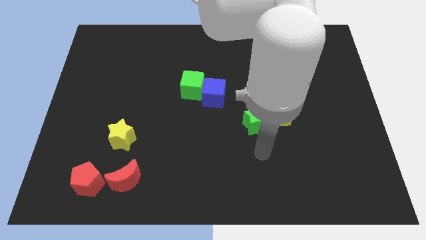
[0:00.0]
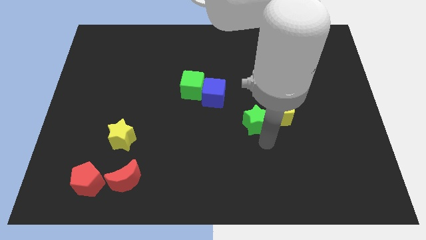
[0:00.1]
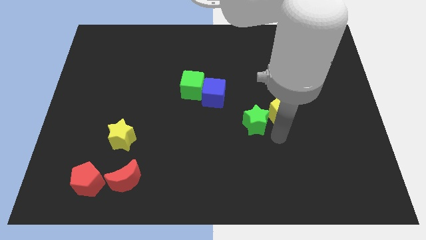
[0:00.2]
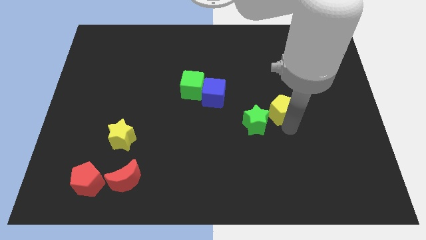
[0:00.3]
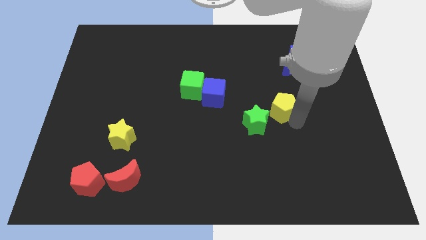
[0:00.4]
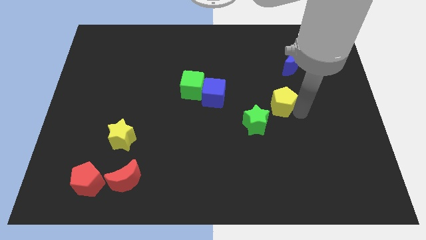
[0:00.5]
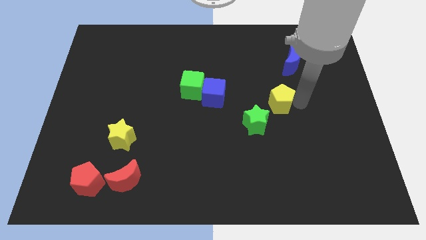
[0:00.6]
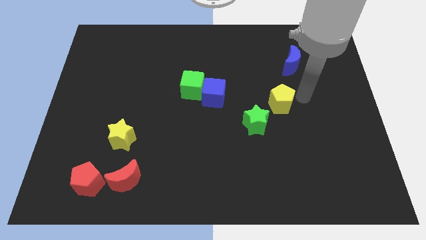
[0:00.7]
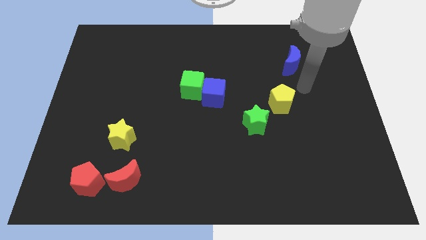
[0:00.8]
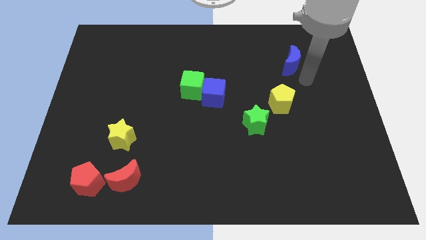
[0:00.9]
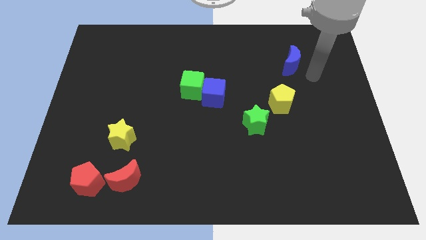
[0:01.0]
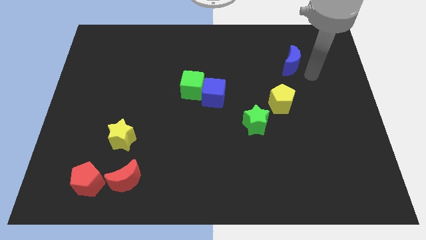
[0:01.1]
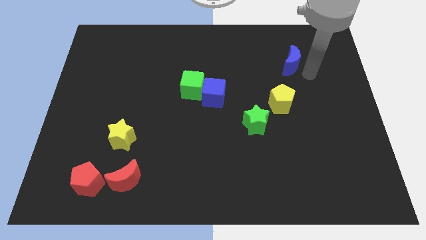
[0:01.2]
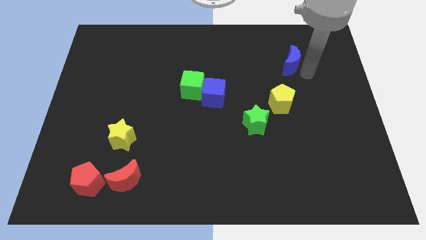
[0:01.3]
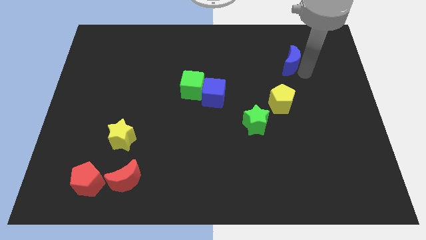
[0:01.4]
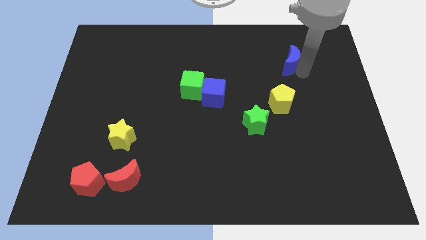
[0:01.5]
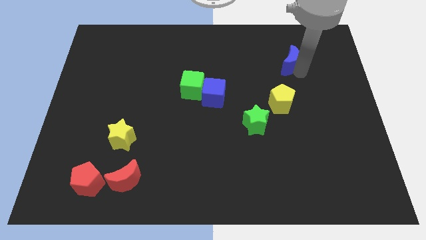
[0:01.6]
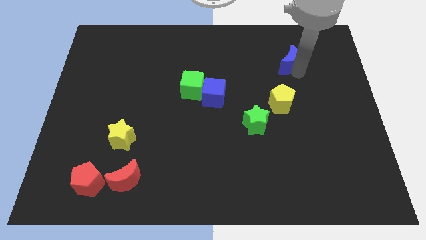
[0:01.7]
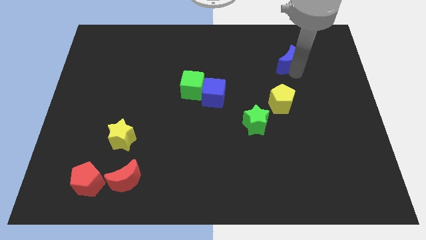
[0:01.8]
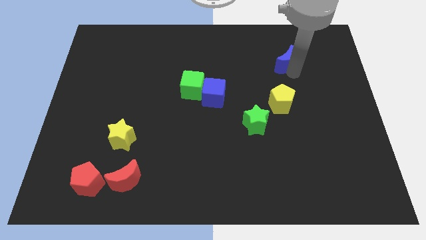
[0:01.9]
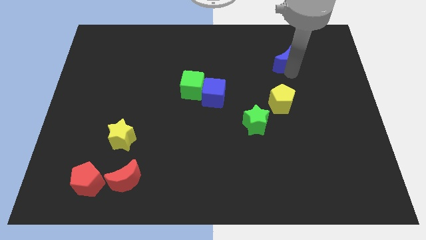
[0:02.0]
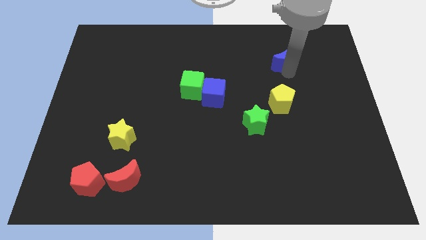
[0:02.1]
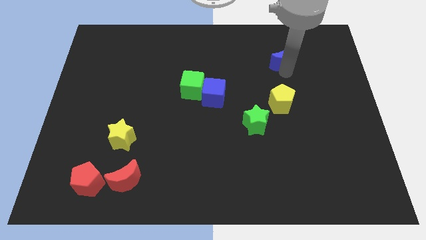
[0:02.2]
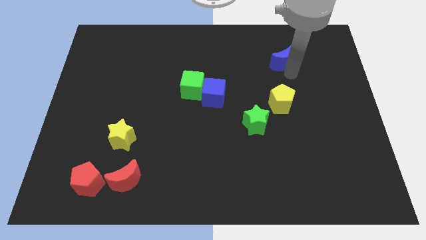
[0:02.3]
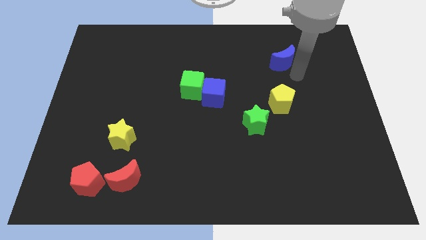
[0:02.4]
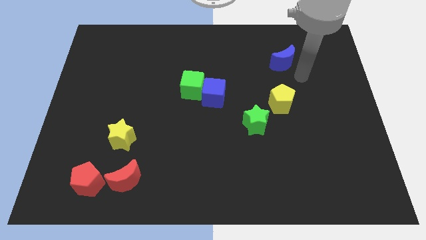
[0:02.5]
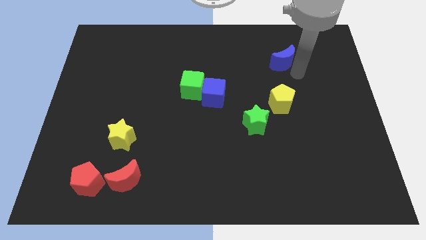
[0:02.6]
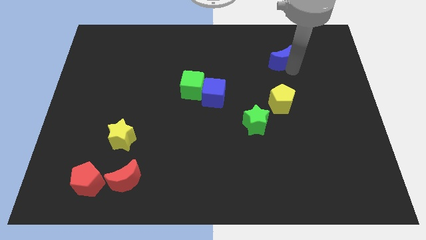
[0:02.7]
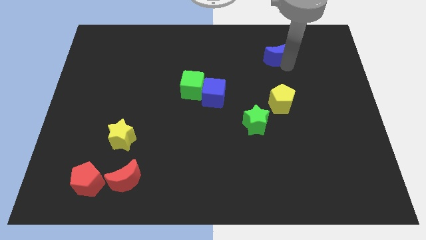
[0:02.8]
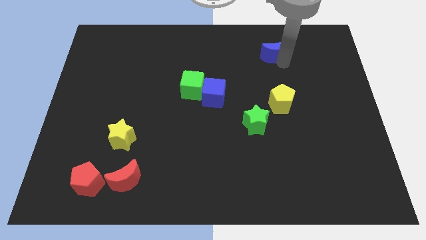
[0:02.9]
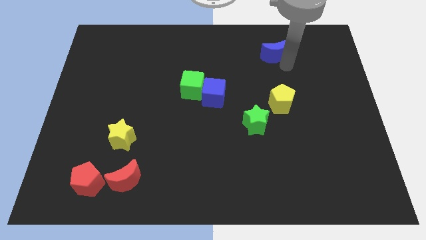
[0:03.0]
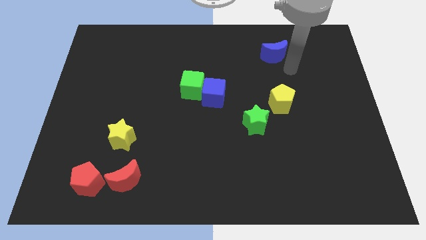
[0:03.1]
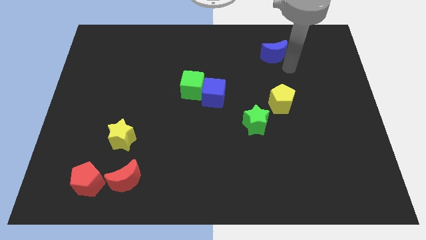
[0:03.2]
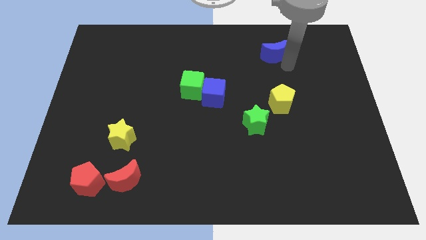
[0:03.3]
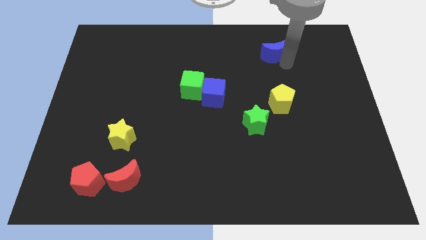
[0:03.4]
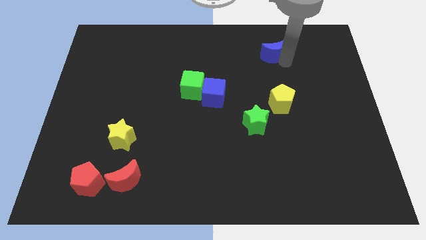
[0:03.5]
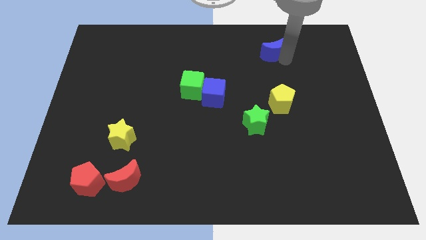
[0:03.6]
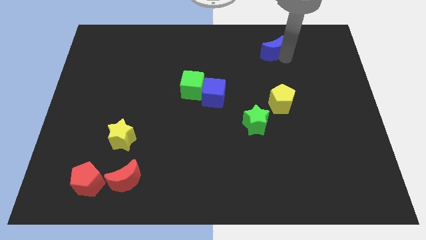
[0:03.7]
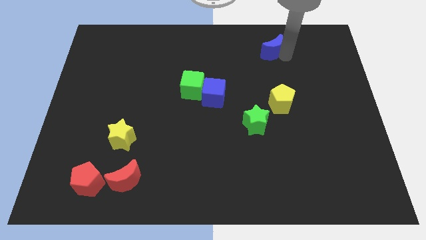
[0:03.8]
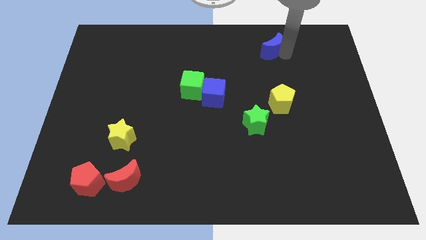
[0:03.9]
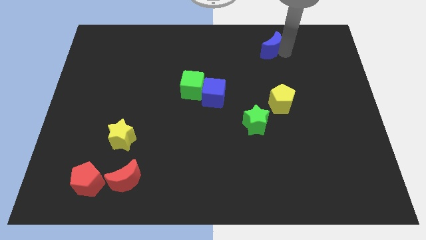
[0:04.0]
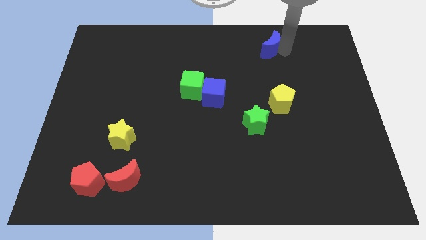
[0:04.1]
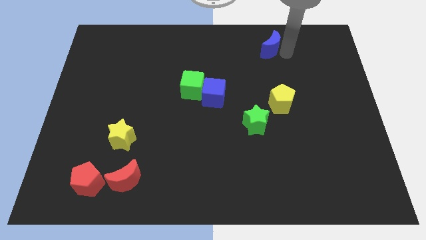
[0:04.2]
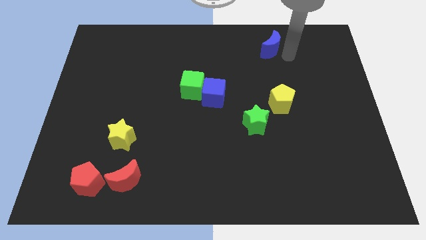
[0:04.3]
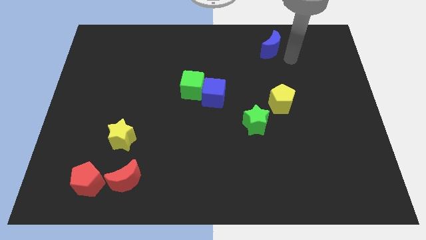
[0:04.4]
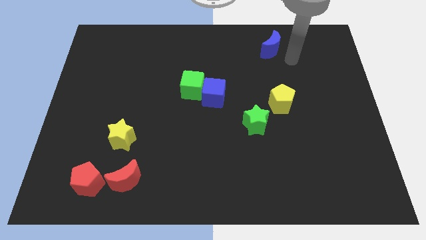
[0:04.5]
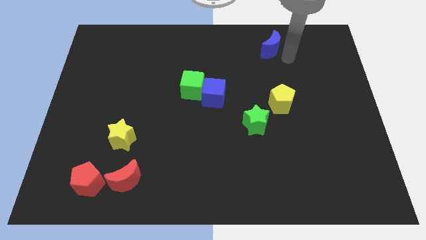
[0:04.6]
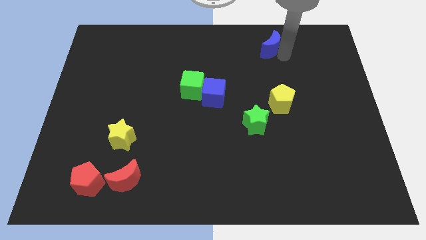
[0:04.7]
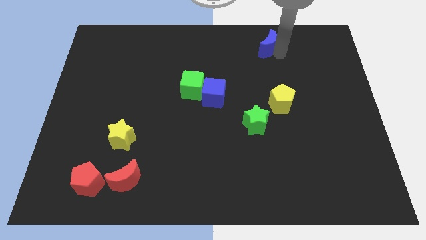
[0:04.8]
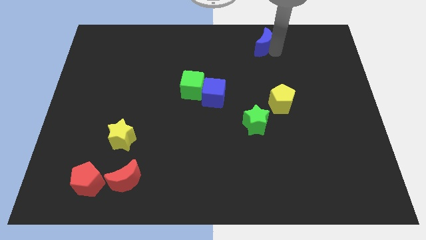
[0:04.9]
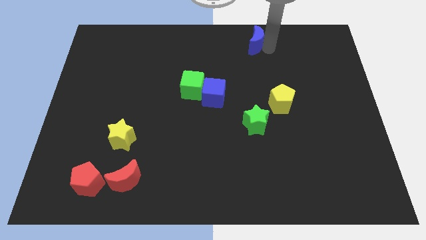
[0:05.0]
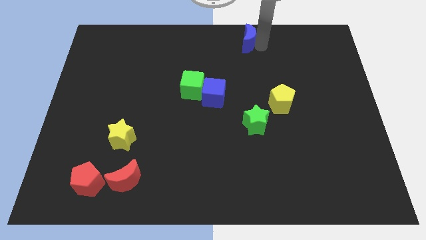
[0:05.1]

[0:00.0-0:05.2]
move the blue moon to the towards your base

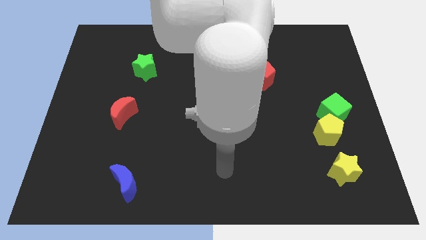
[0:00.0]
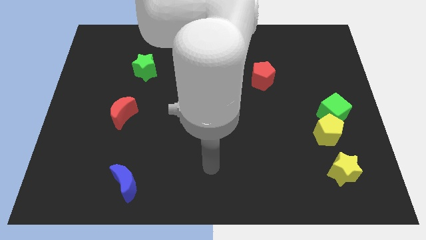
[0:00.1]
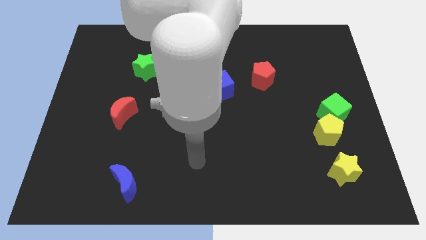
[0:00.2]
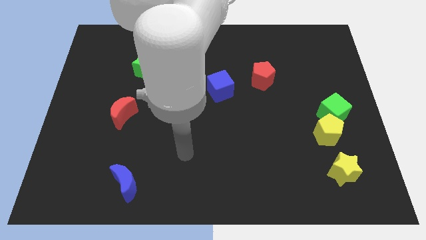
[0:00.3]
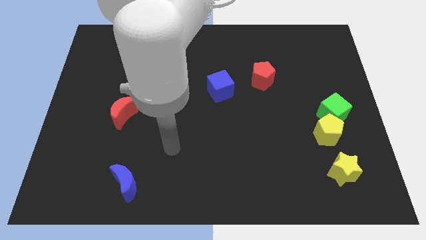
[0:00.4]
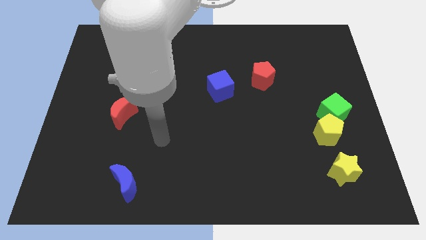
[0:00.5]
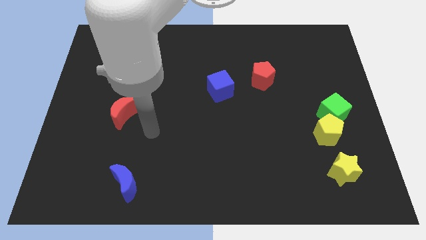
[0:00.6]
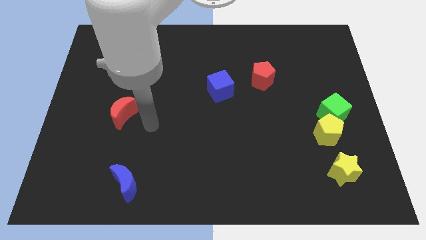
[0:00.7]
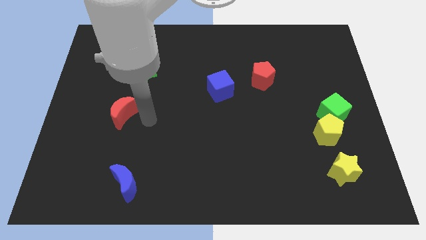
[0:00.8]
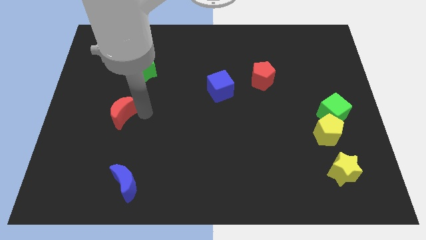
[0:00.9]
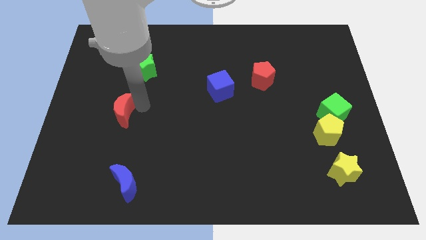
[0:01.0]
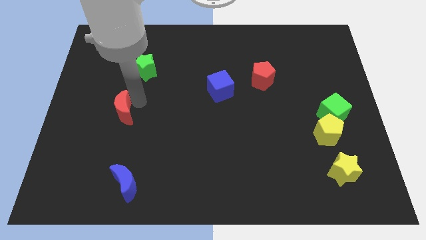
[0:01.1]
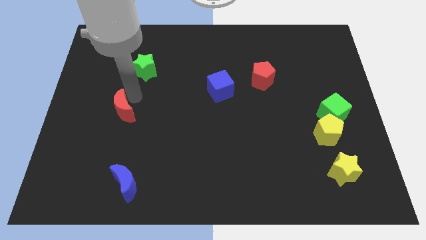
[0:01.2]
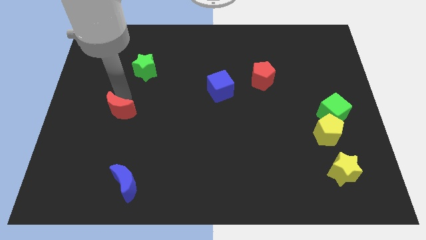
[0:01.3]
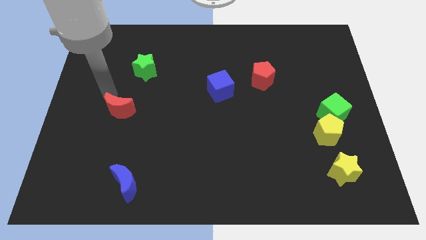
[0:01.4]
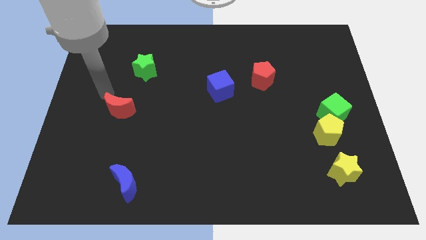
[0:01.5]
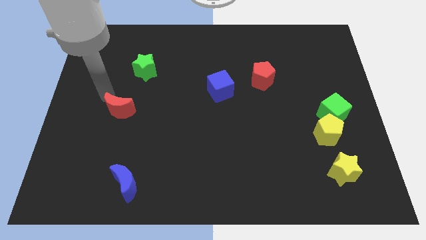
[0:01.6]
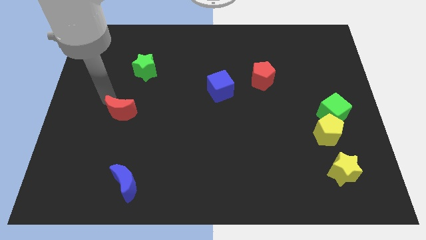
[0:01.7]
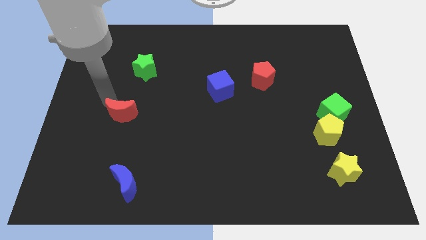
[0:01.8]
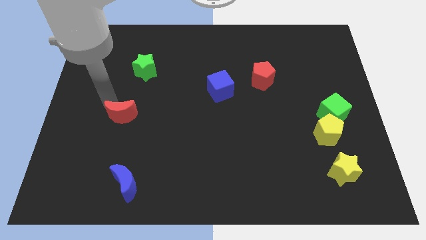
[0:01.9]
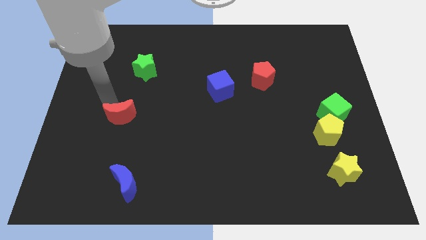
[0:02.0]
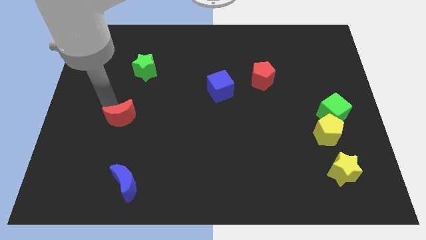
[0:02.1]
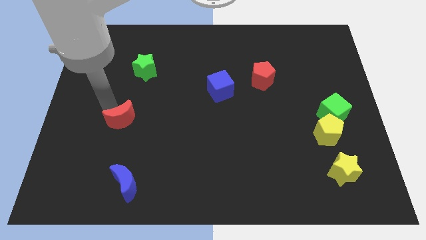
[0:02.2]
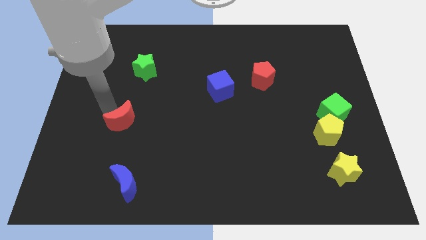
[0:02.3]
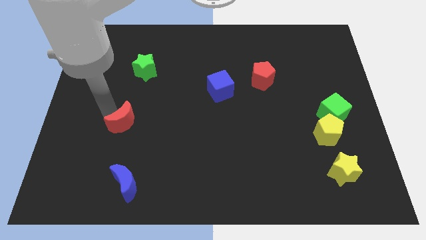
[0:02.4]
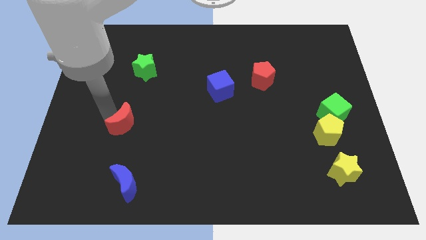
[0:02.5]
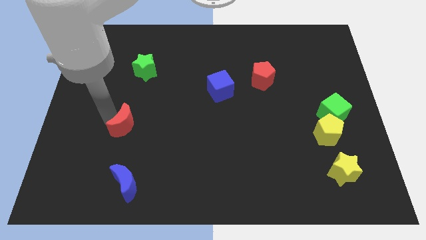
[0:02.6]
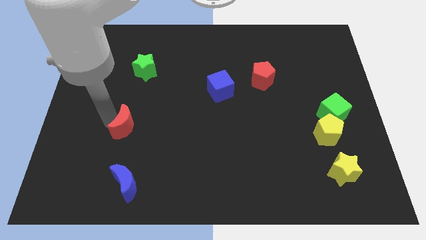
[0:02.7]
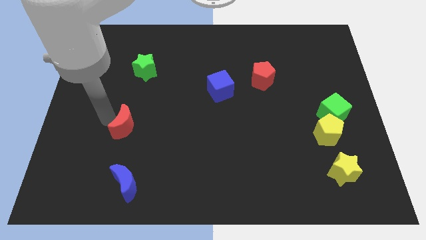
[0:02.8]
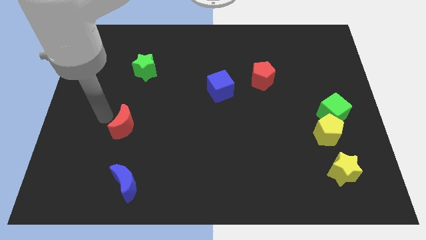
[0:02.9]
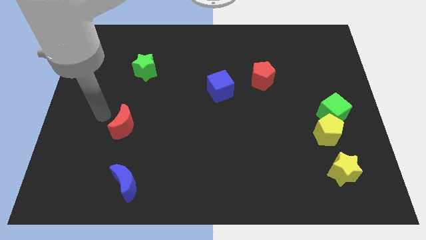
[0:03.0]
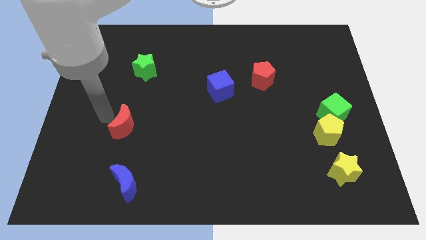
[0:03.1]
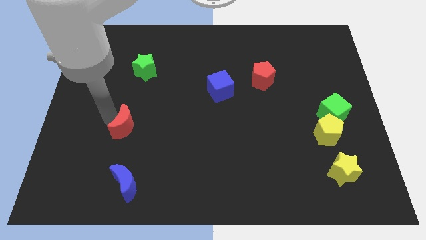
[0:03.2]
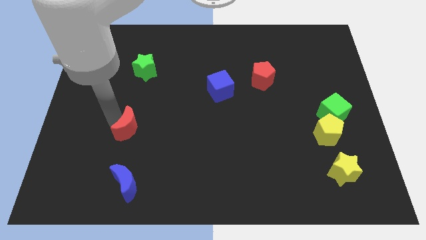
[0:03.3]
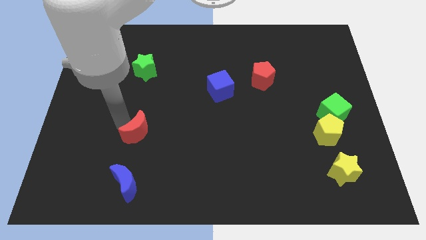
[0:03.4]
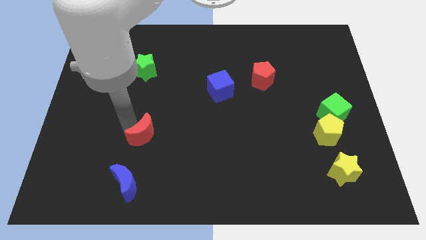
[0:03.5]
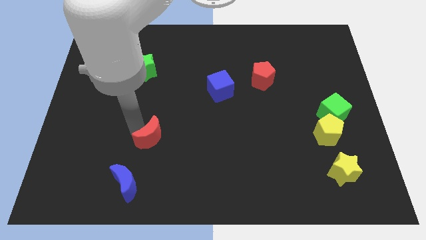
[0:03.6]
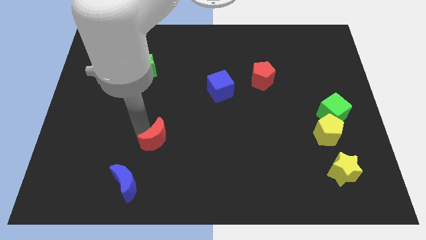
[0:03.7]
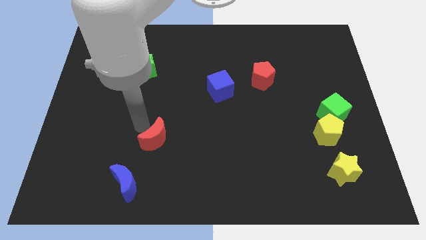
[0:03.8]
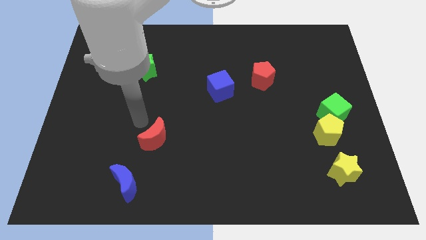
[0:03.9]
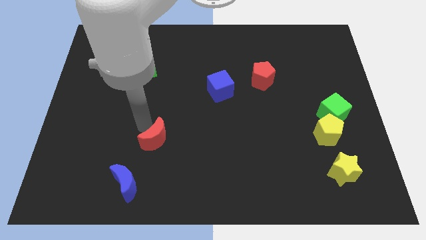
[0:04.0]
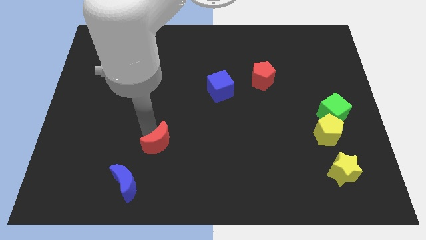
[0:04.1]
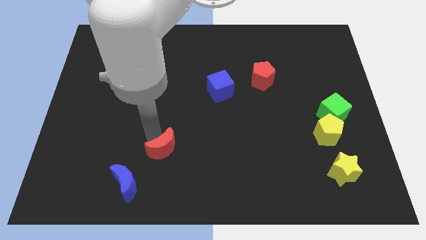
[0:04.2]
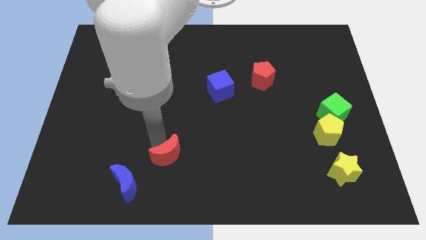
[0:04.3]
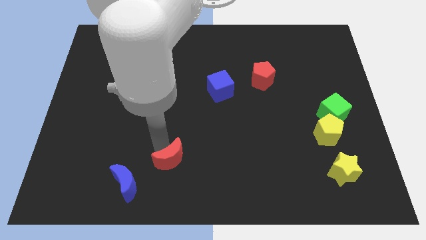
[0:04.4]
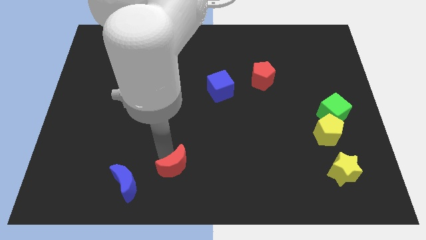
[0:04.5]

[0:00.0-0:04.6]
put the red moon to the bottom
